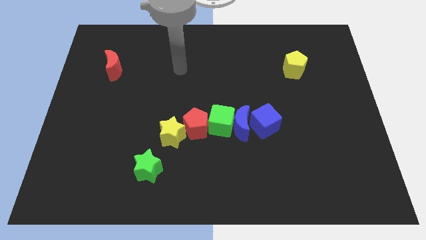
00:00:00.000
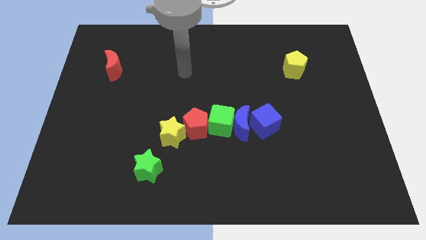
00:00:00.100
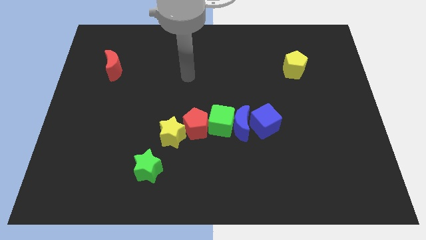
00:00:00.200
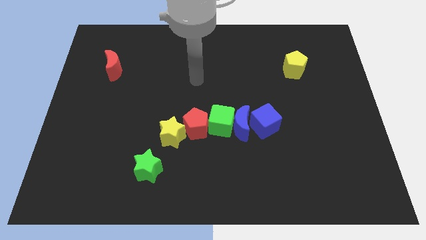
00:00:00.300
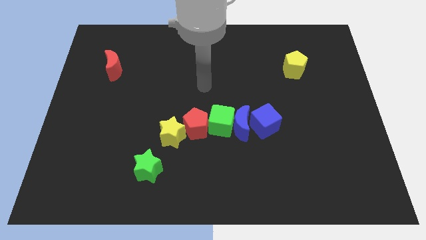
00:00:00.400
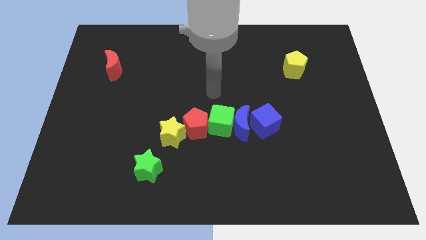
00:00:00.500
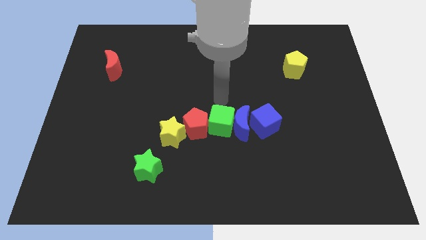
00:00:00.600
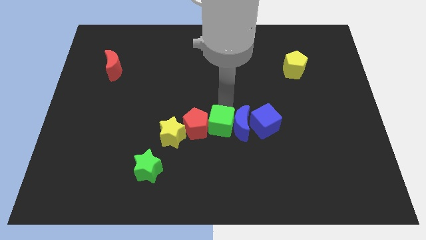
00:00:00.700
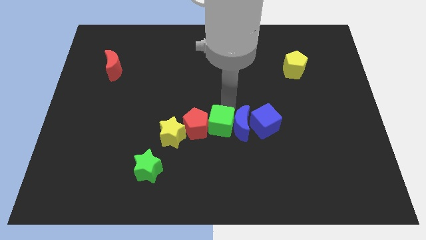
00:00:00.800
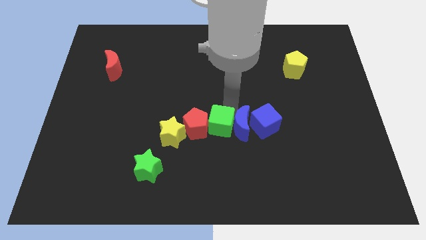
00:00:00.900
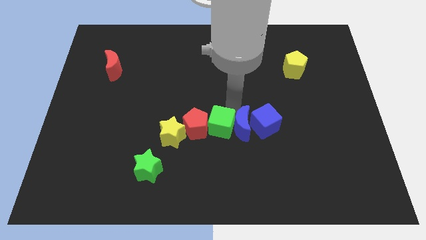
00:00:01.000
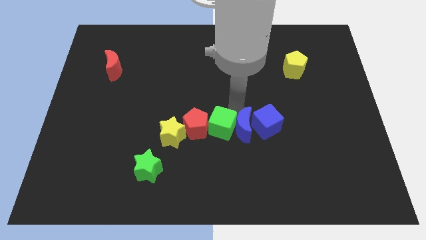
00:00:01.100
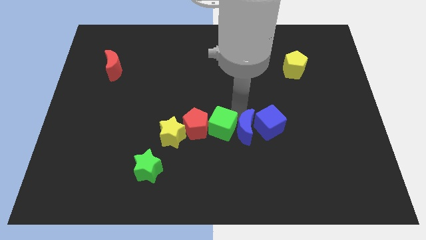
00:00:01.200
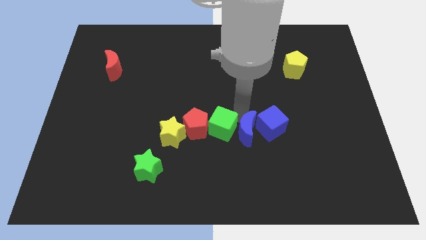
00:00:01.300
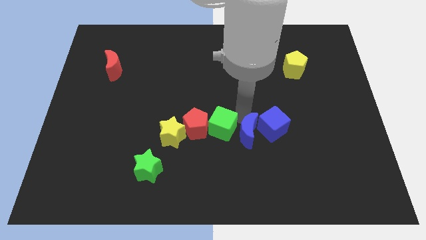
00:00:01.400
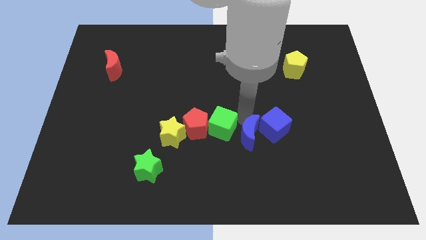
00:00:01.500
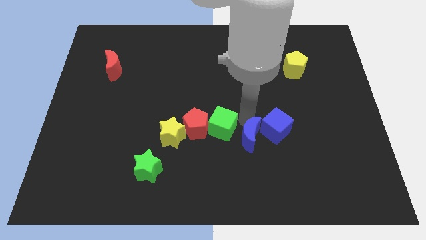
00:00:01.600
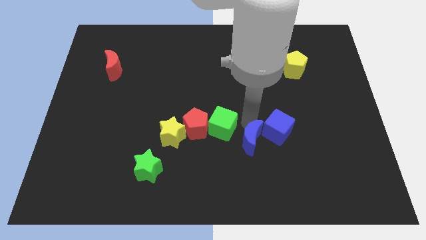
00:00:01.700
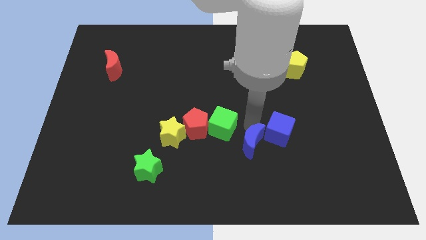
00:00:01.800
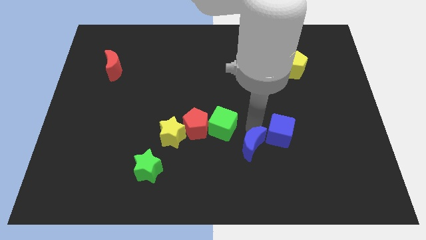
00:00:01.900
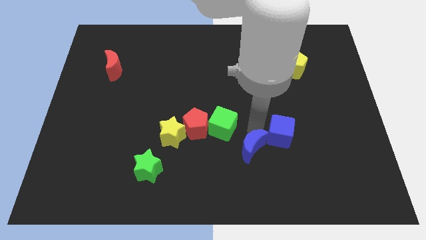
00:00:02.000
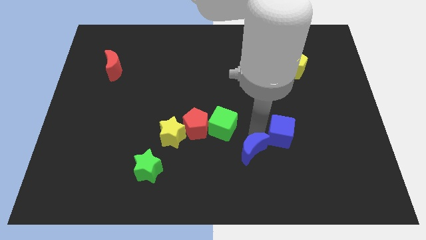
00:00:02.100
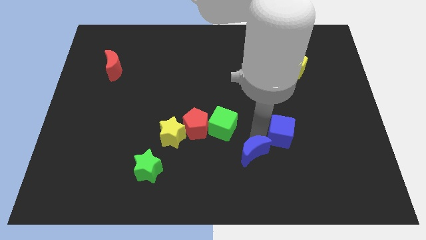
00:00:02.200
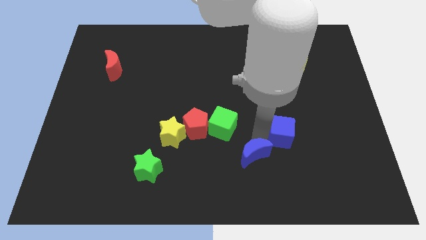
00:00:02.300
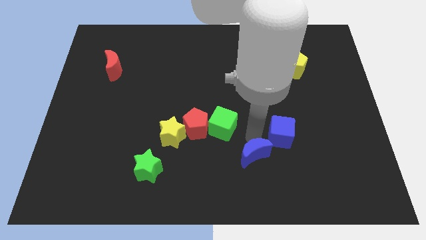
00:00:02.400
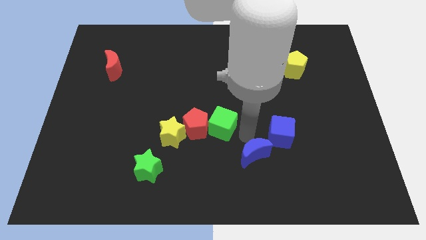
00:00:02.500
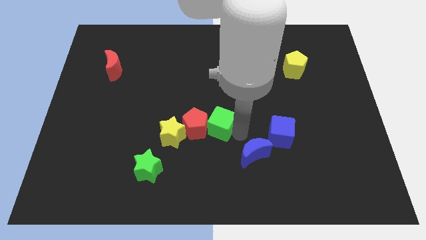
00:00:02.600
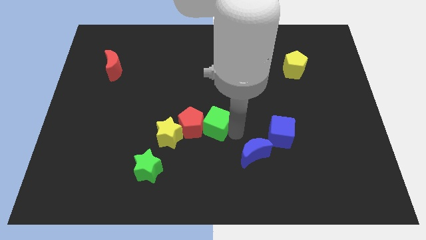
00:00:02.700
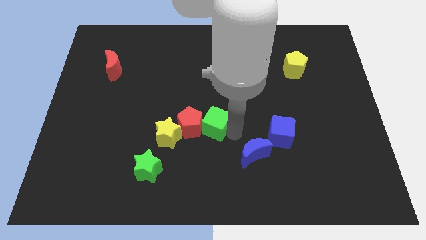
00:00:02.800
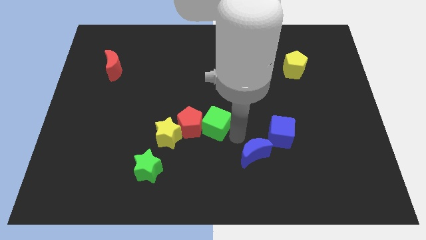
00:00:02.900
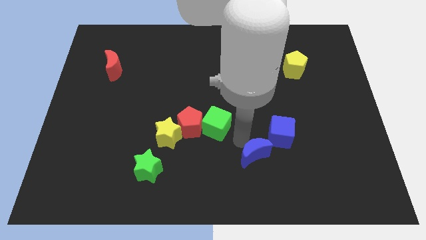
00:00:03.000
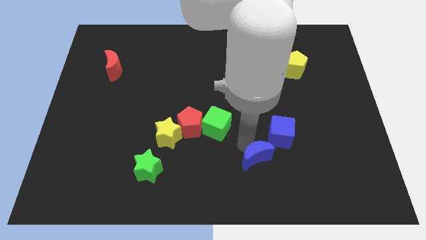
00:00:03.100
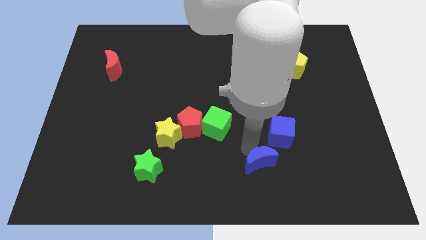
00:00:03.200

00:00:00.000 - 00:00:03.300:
separate the blue moon from the green cube, blue cube, and red pentagon

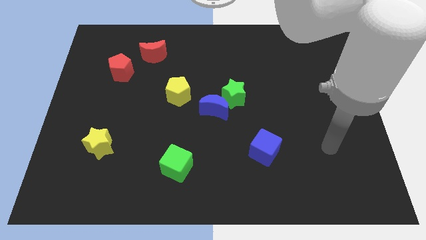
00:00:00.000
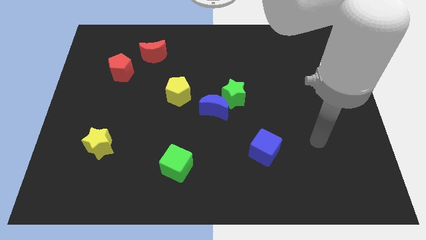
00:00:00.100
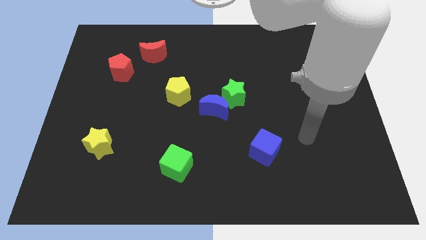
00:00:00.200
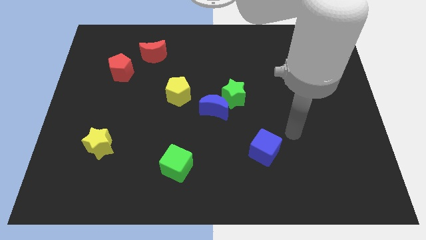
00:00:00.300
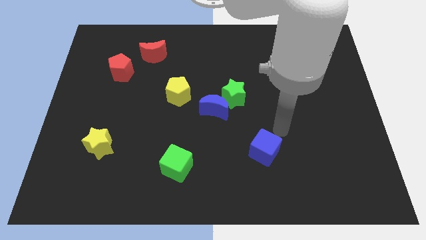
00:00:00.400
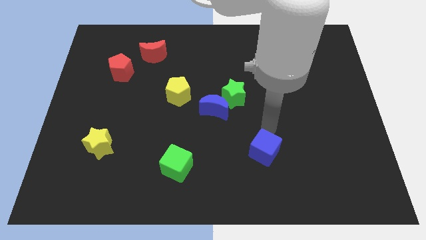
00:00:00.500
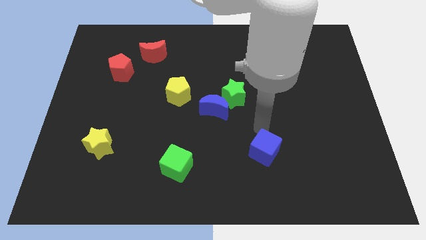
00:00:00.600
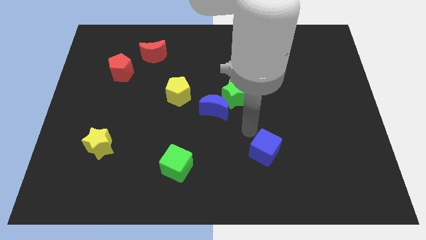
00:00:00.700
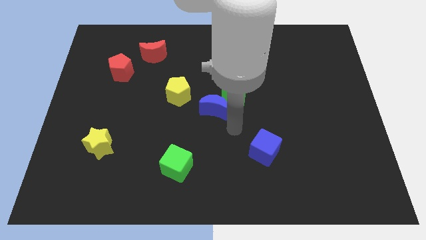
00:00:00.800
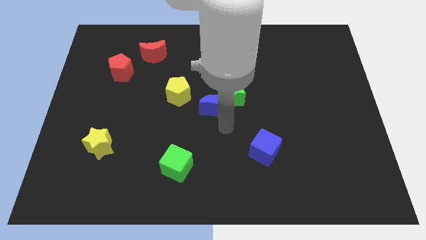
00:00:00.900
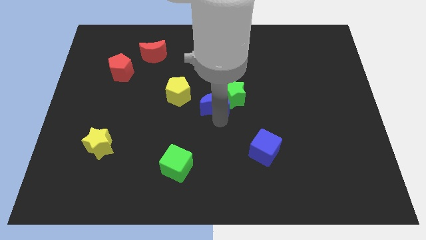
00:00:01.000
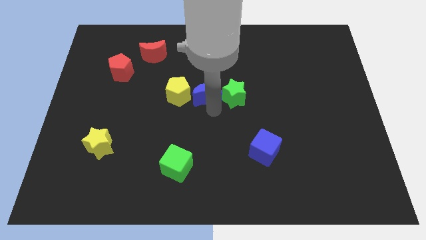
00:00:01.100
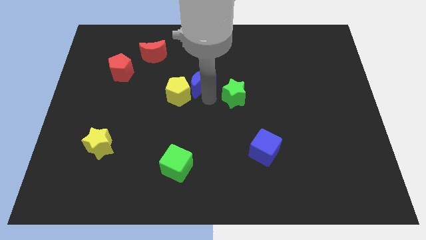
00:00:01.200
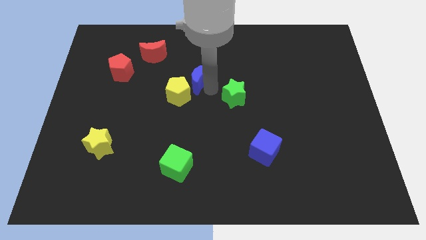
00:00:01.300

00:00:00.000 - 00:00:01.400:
pull the green star apart from the blue moon

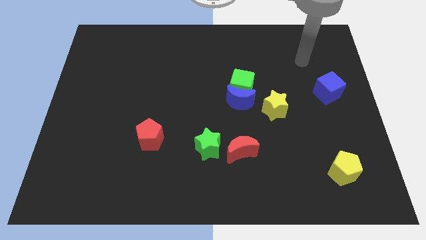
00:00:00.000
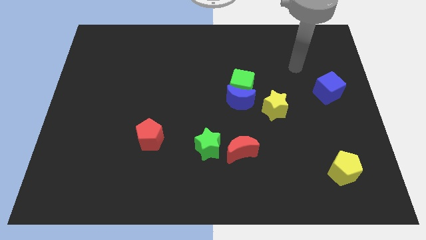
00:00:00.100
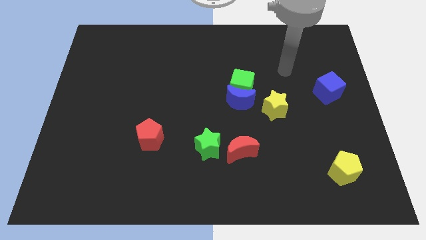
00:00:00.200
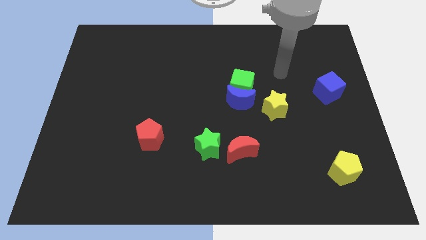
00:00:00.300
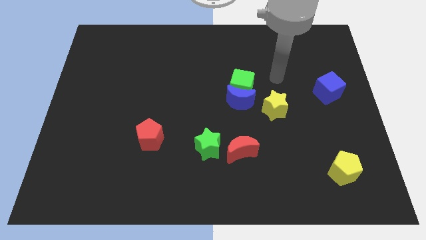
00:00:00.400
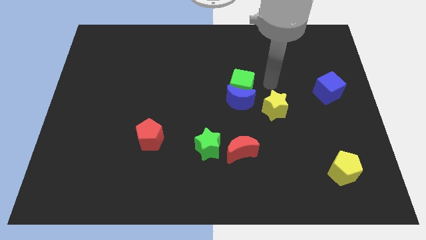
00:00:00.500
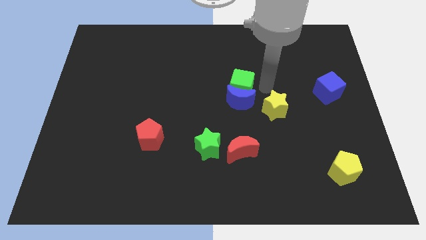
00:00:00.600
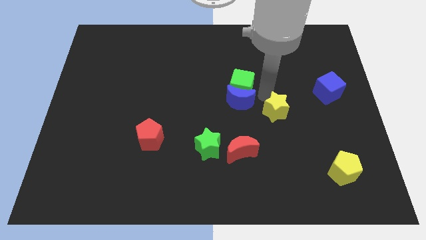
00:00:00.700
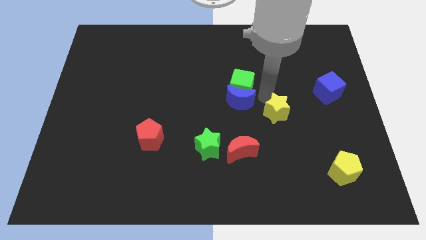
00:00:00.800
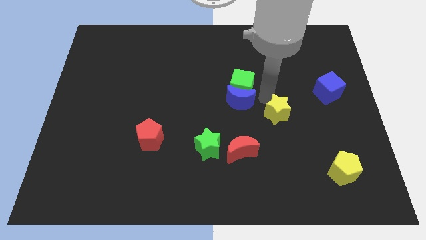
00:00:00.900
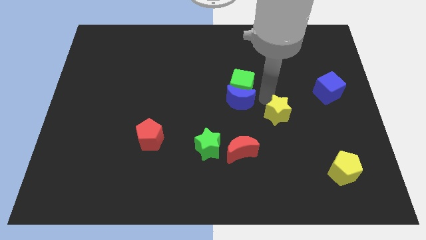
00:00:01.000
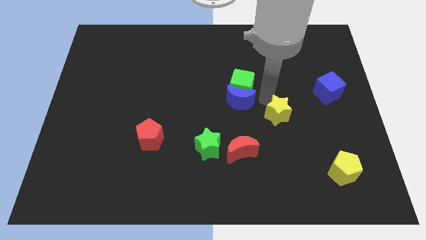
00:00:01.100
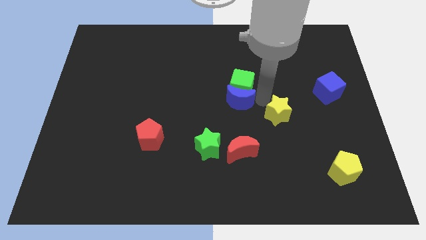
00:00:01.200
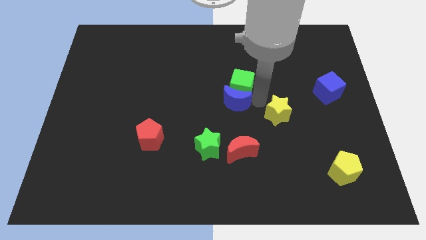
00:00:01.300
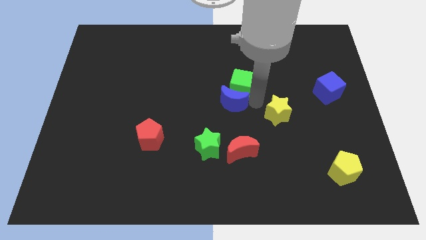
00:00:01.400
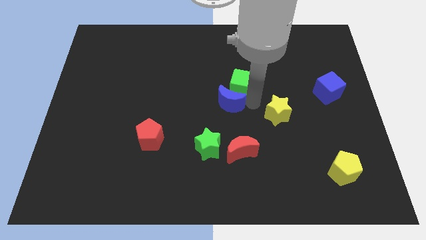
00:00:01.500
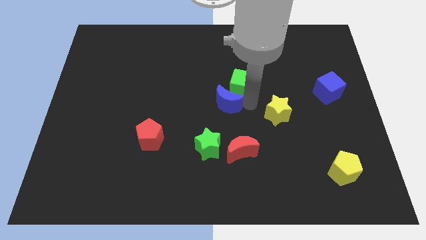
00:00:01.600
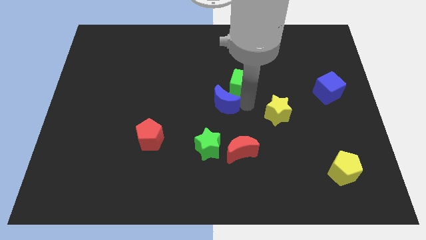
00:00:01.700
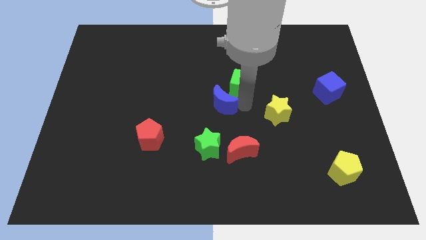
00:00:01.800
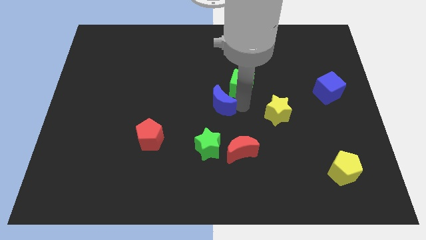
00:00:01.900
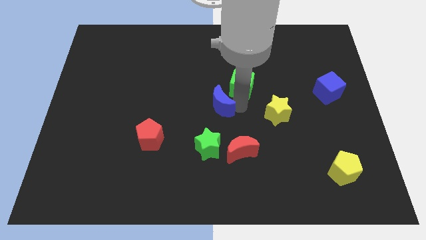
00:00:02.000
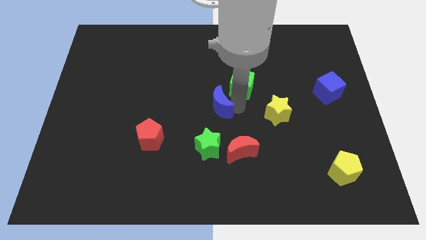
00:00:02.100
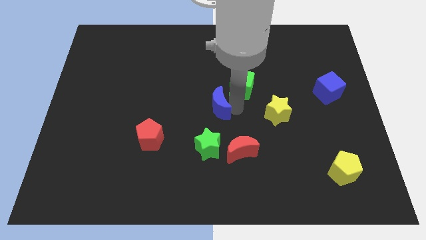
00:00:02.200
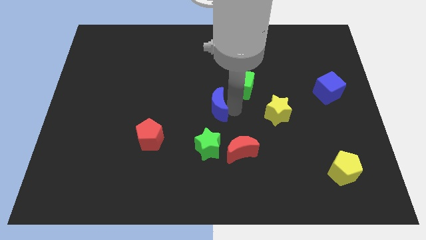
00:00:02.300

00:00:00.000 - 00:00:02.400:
separate the blue moon from the green cube and yellow star

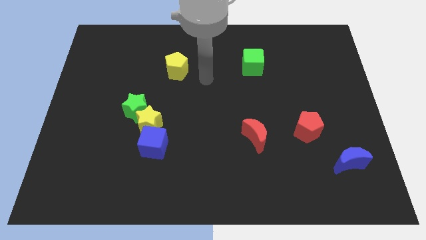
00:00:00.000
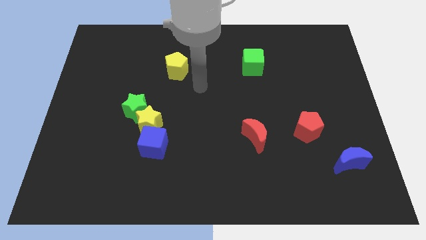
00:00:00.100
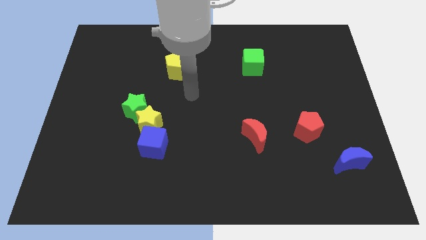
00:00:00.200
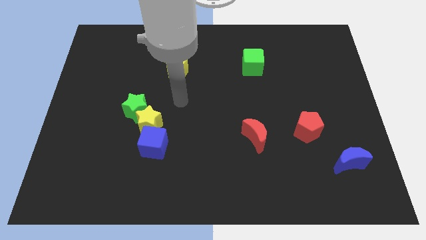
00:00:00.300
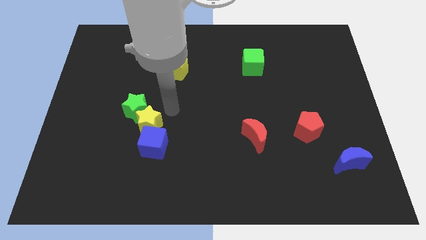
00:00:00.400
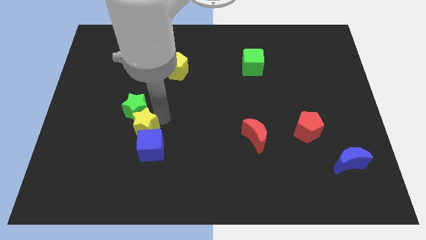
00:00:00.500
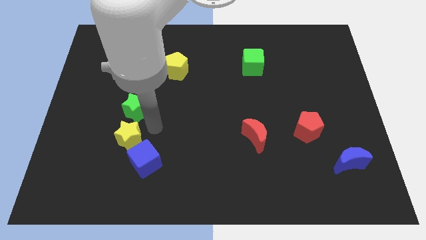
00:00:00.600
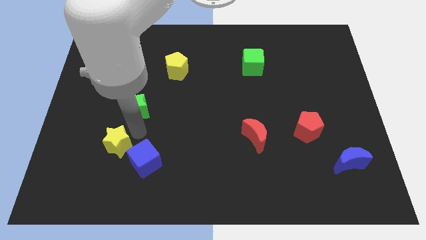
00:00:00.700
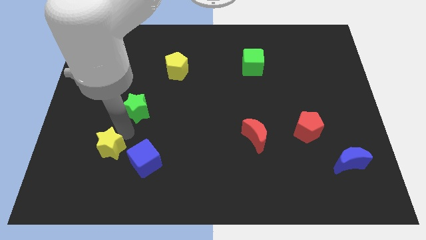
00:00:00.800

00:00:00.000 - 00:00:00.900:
pull the green star apart from the yellow star

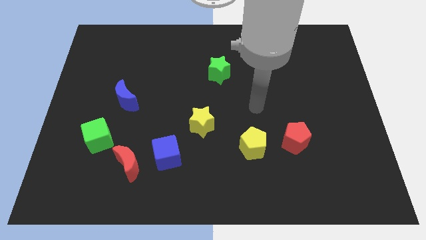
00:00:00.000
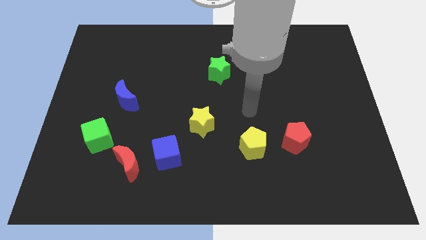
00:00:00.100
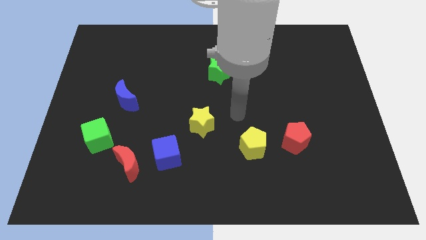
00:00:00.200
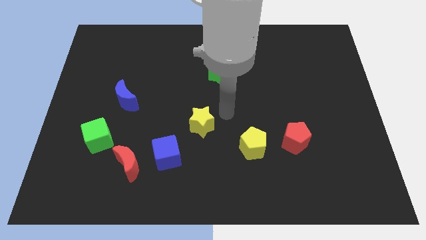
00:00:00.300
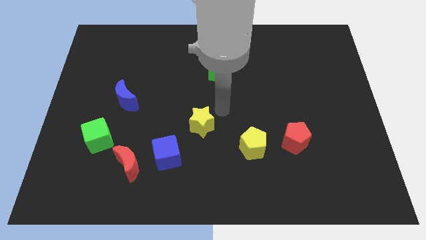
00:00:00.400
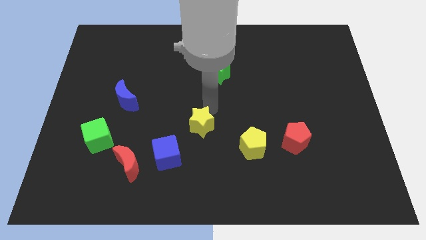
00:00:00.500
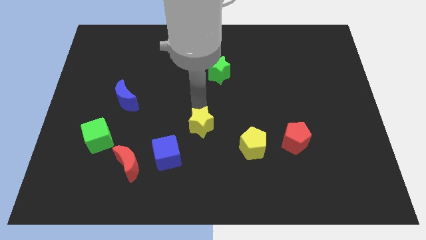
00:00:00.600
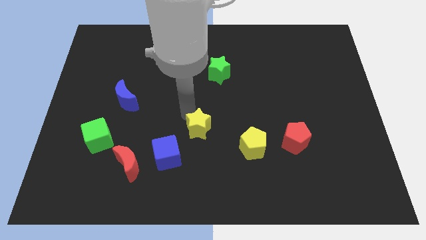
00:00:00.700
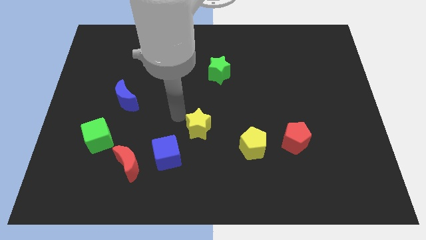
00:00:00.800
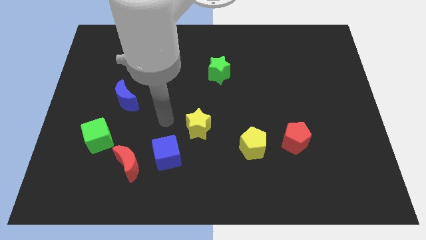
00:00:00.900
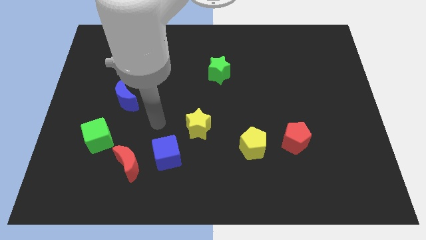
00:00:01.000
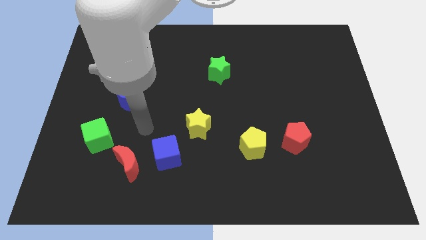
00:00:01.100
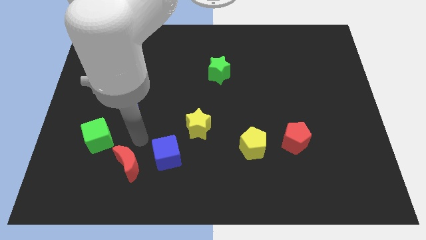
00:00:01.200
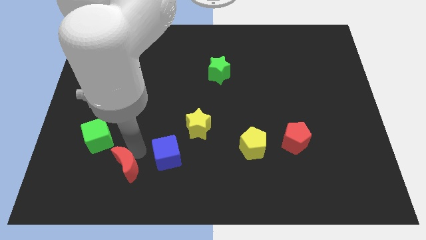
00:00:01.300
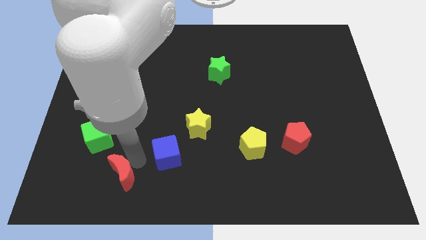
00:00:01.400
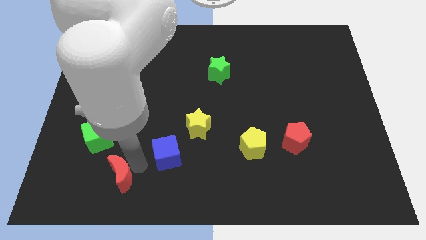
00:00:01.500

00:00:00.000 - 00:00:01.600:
pull the blue cube apart from the red moon
